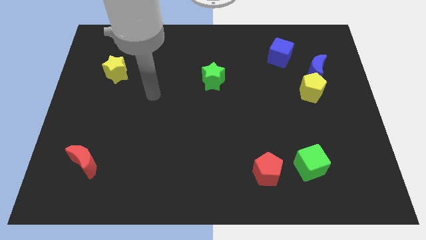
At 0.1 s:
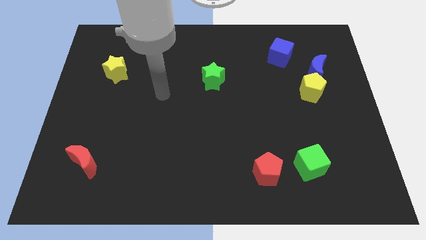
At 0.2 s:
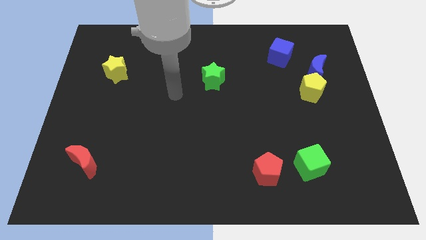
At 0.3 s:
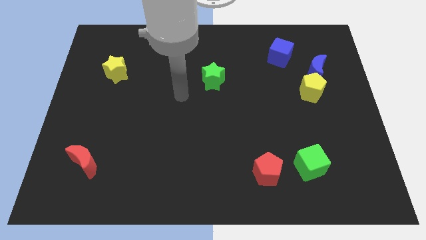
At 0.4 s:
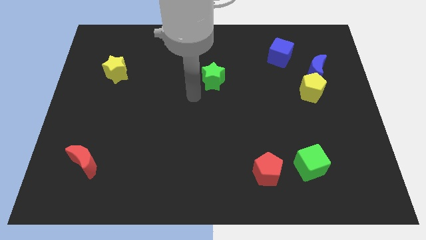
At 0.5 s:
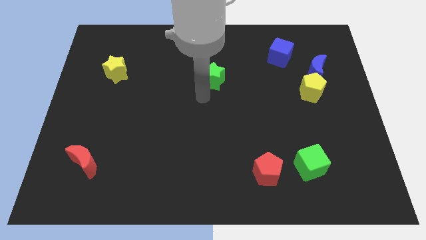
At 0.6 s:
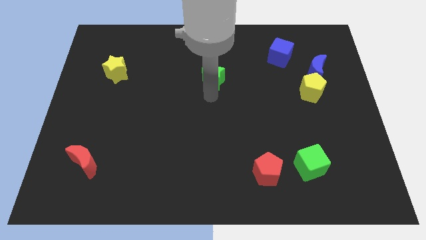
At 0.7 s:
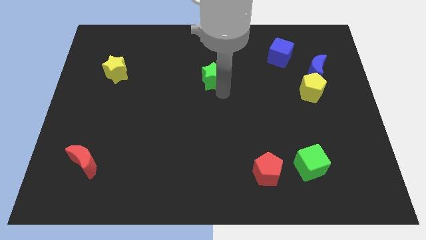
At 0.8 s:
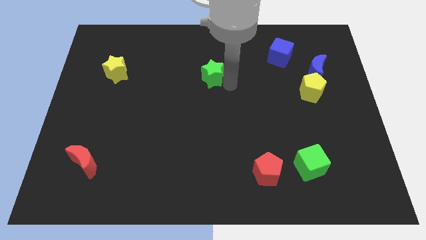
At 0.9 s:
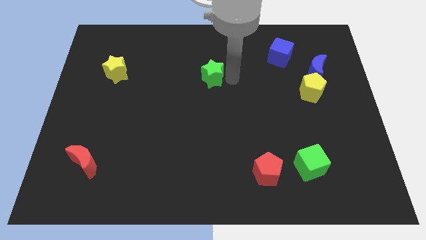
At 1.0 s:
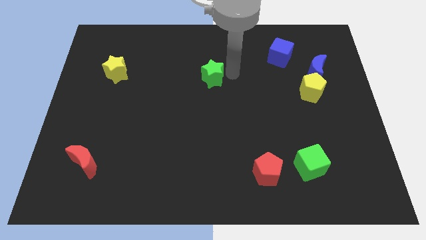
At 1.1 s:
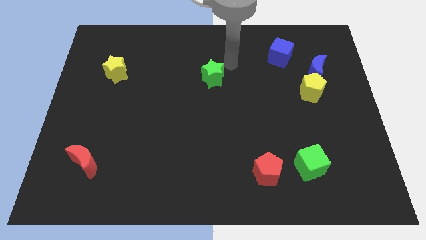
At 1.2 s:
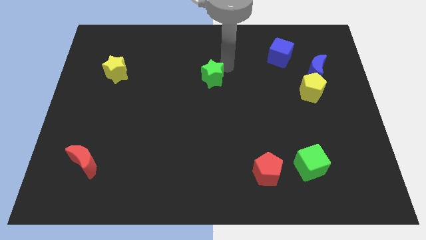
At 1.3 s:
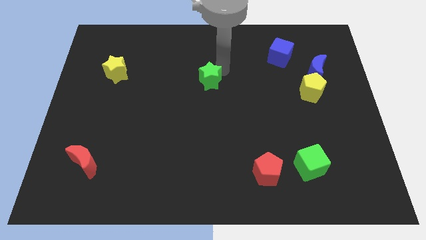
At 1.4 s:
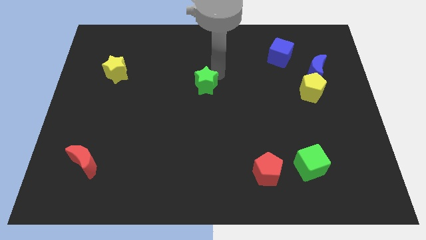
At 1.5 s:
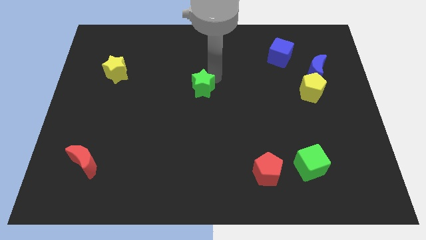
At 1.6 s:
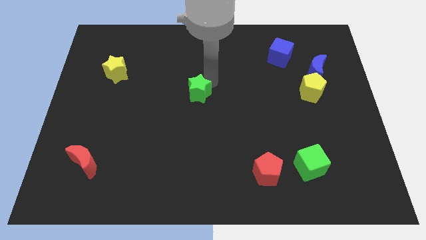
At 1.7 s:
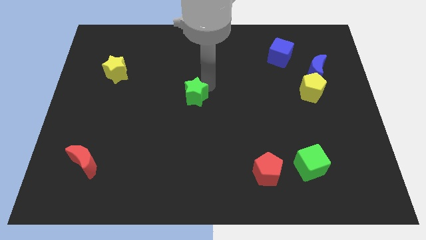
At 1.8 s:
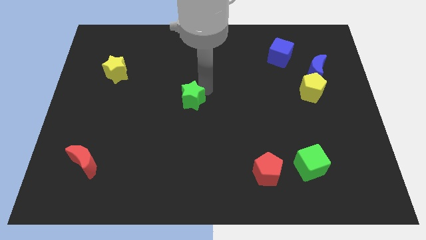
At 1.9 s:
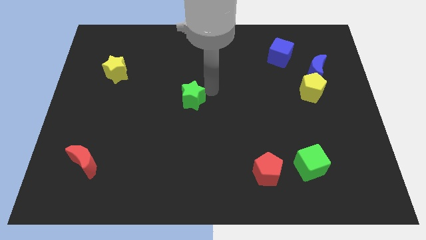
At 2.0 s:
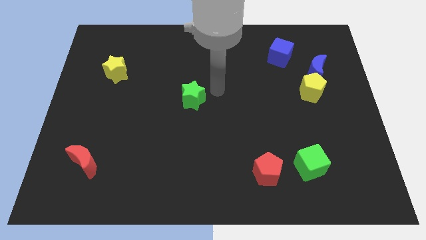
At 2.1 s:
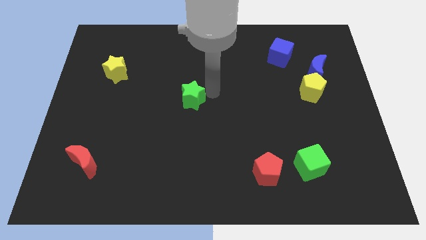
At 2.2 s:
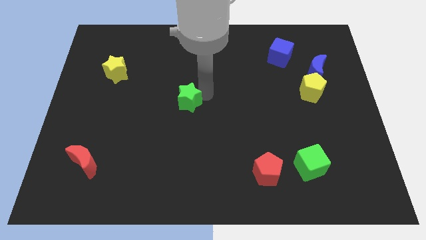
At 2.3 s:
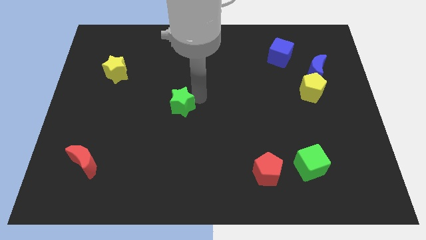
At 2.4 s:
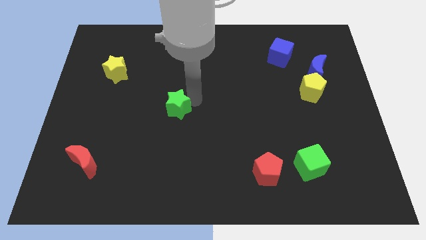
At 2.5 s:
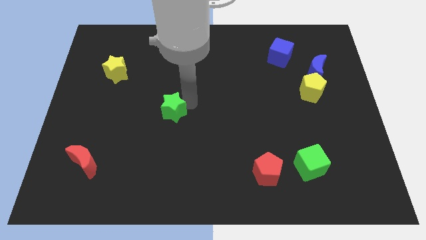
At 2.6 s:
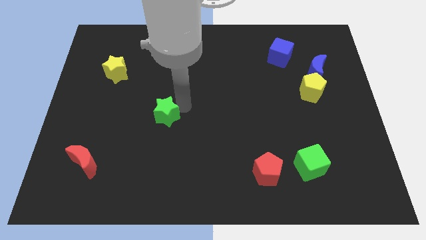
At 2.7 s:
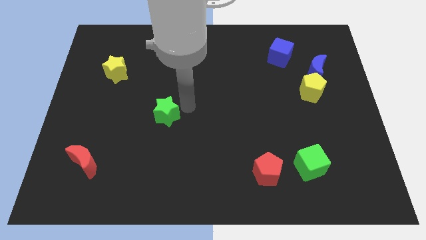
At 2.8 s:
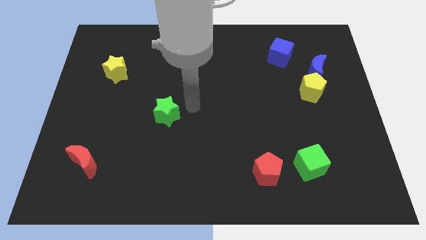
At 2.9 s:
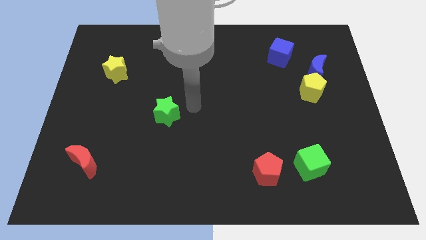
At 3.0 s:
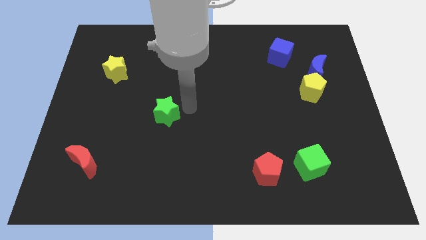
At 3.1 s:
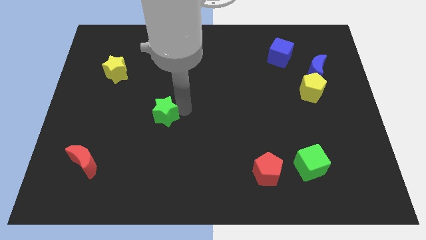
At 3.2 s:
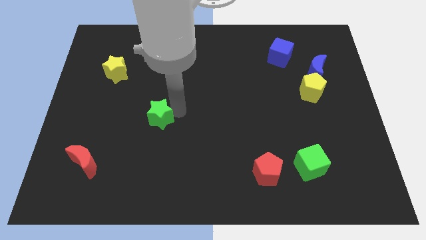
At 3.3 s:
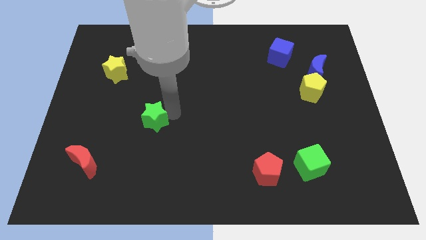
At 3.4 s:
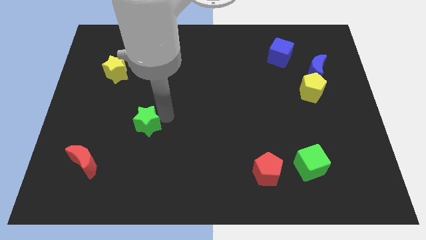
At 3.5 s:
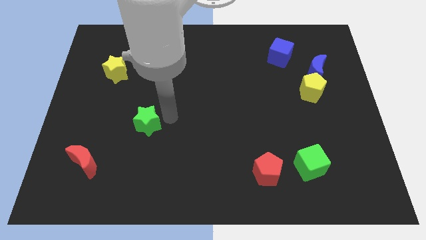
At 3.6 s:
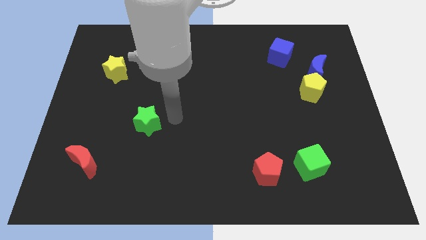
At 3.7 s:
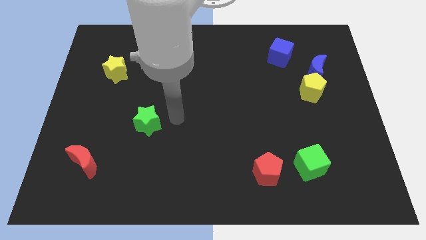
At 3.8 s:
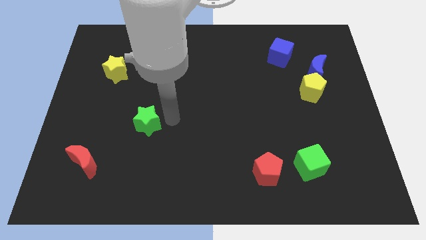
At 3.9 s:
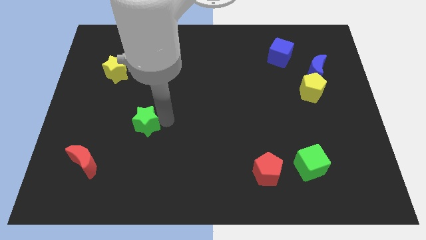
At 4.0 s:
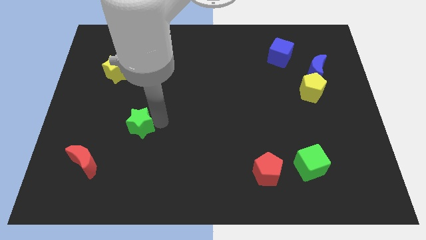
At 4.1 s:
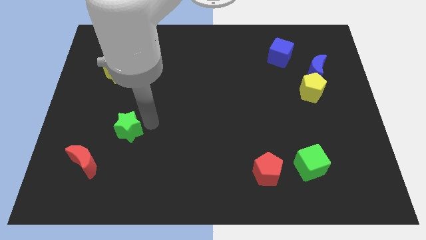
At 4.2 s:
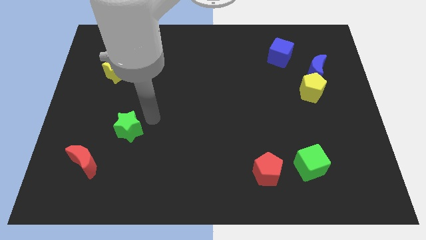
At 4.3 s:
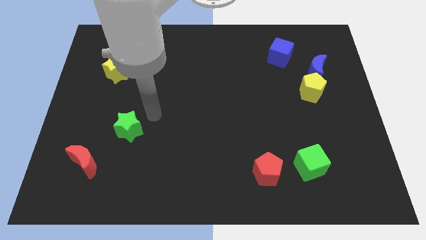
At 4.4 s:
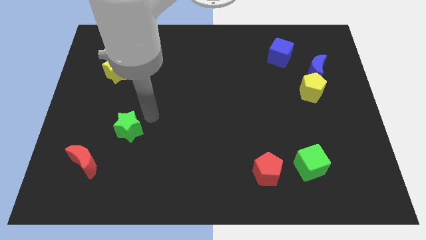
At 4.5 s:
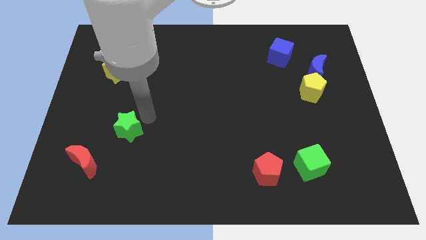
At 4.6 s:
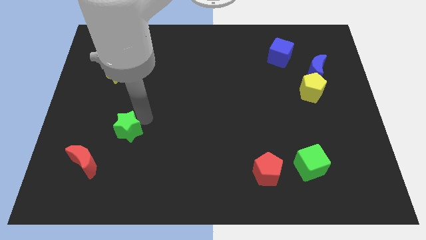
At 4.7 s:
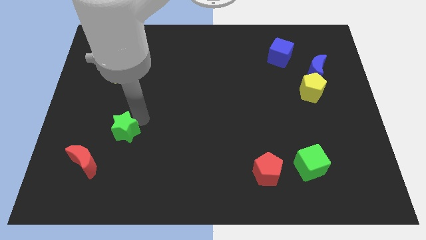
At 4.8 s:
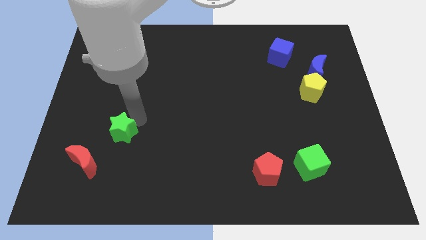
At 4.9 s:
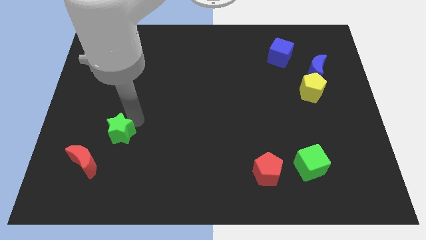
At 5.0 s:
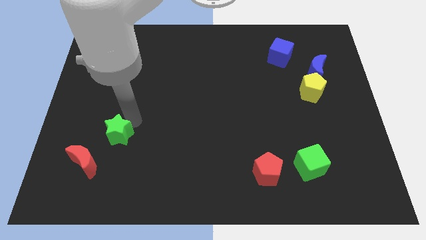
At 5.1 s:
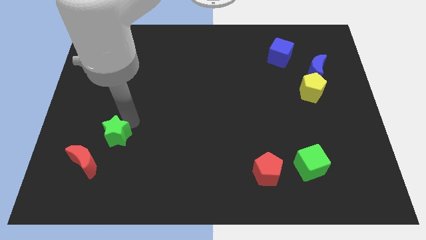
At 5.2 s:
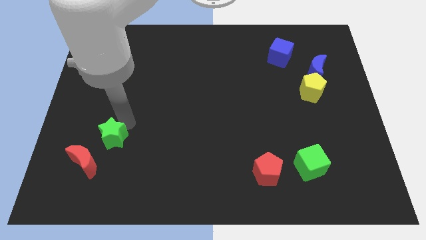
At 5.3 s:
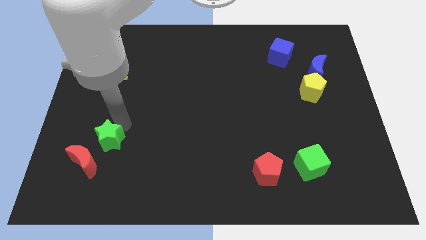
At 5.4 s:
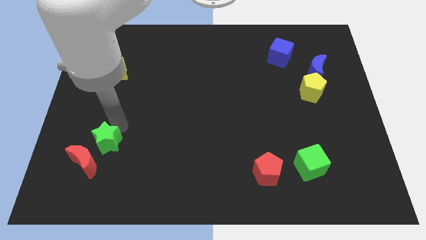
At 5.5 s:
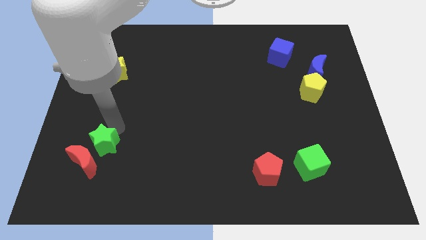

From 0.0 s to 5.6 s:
move the green star close to the red moon
